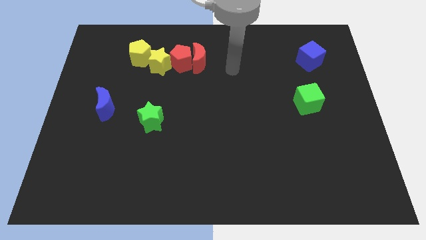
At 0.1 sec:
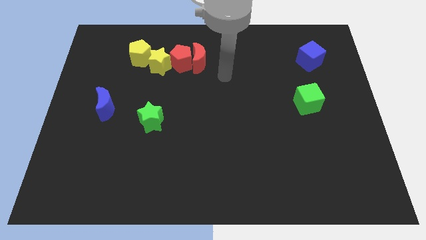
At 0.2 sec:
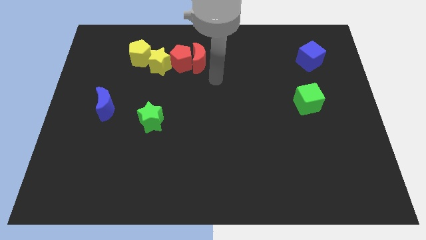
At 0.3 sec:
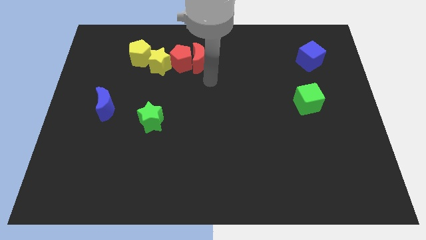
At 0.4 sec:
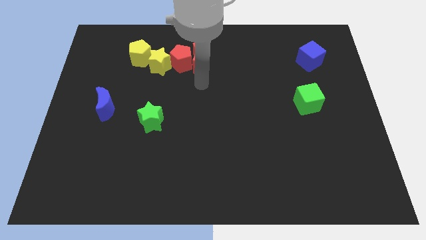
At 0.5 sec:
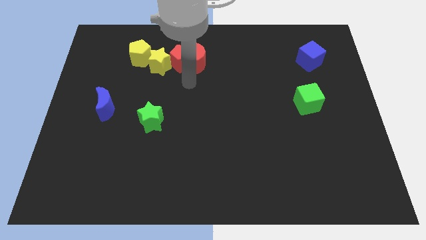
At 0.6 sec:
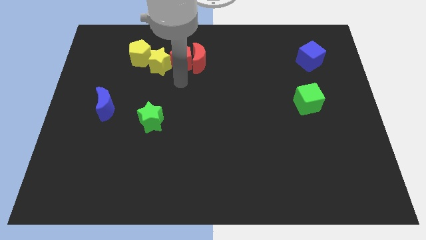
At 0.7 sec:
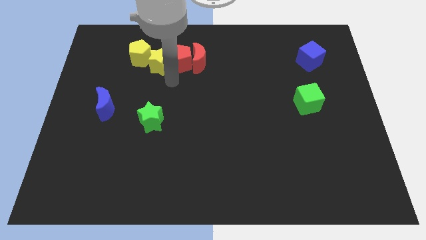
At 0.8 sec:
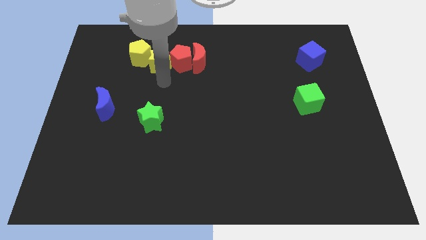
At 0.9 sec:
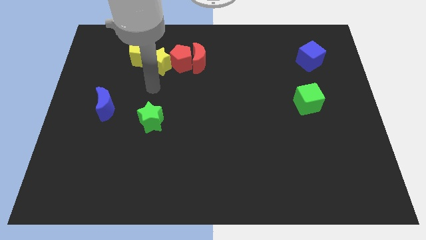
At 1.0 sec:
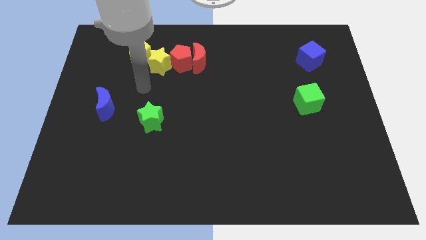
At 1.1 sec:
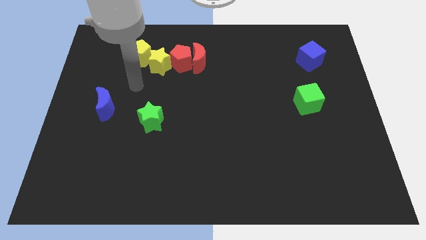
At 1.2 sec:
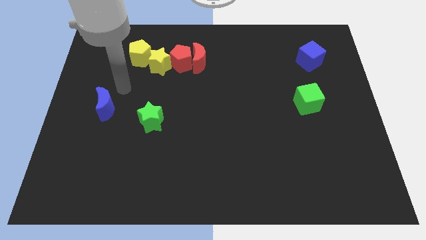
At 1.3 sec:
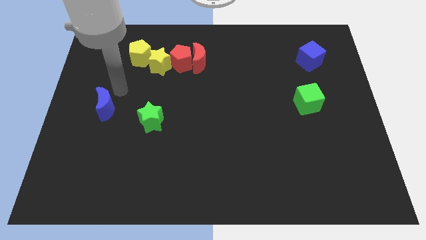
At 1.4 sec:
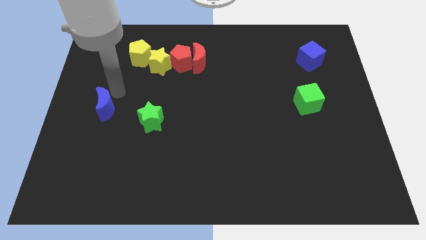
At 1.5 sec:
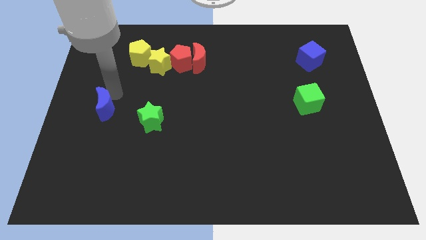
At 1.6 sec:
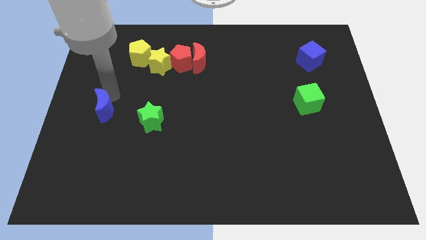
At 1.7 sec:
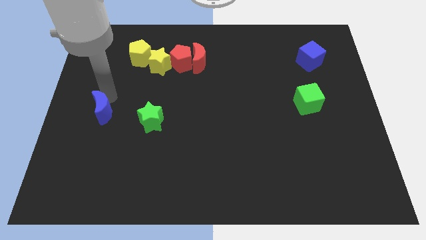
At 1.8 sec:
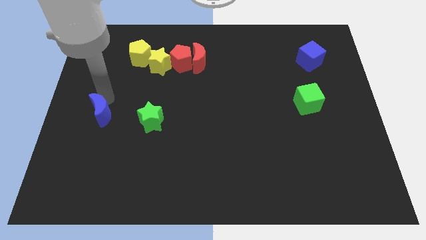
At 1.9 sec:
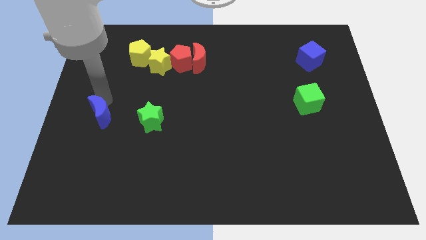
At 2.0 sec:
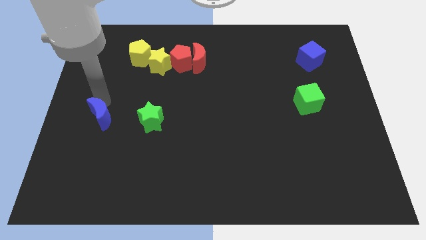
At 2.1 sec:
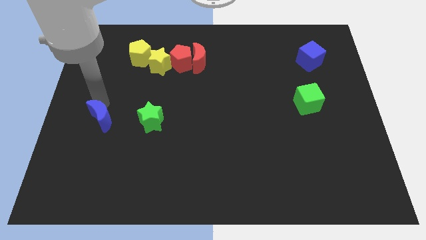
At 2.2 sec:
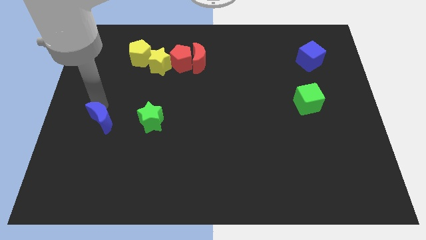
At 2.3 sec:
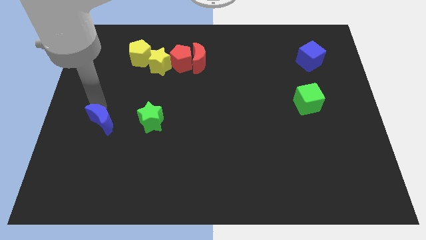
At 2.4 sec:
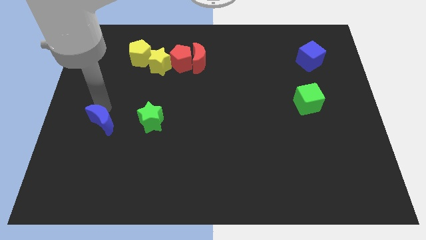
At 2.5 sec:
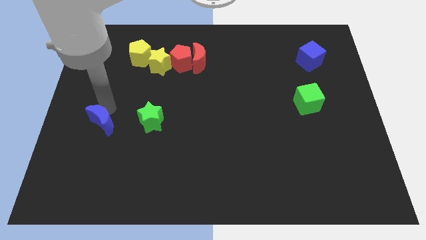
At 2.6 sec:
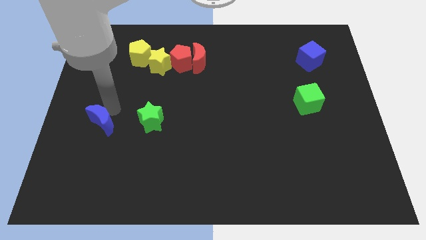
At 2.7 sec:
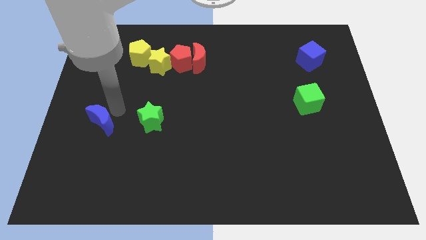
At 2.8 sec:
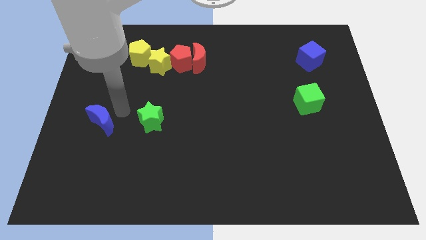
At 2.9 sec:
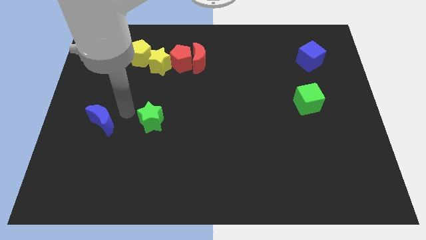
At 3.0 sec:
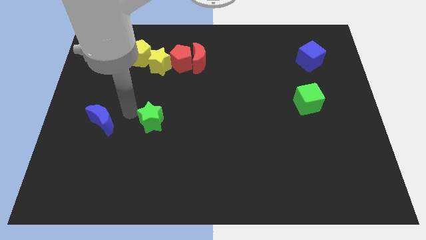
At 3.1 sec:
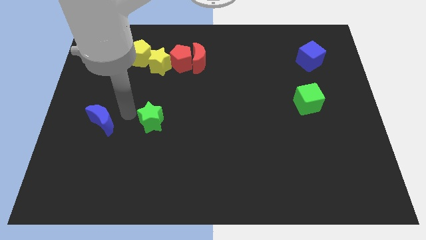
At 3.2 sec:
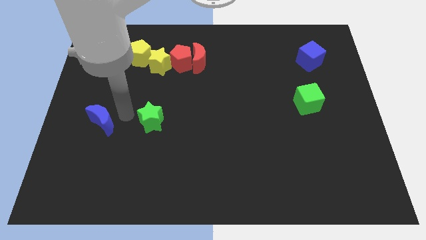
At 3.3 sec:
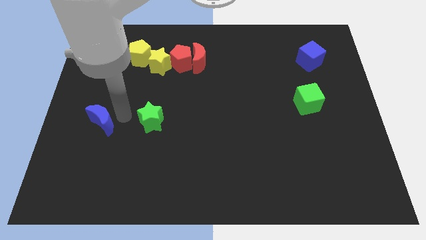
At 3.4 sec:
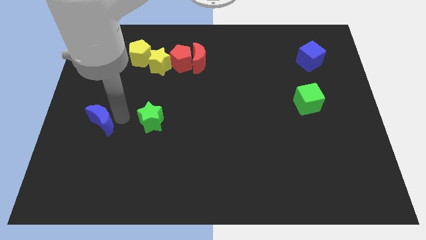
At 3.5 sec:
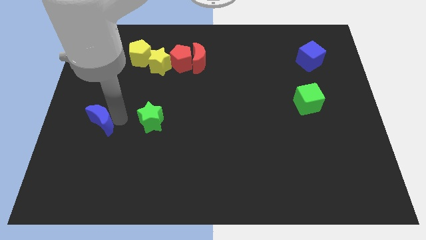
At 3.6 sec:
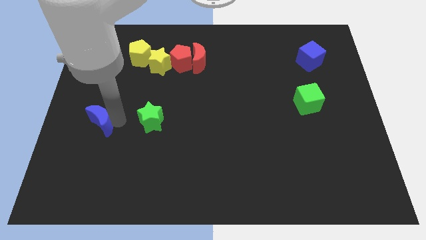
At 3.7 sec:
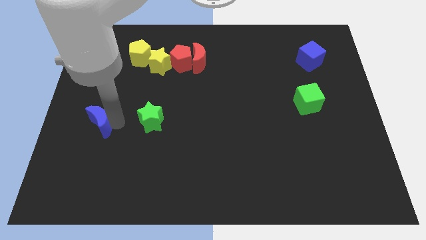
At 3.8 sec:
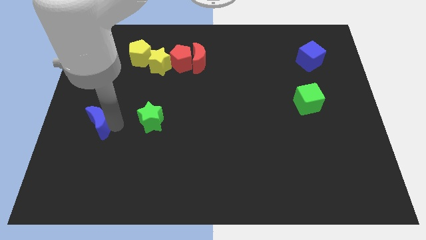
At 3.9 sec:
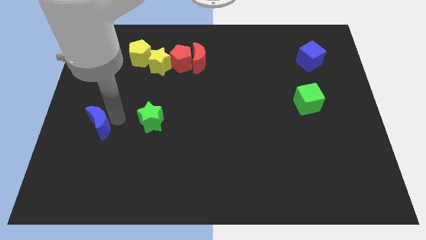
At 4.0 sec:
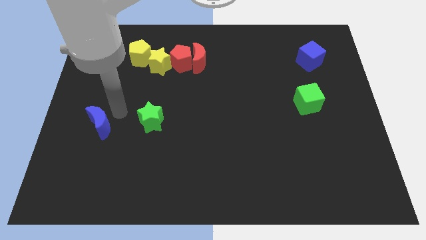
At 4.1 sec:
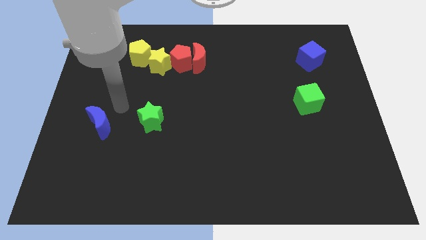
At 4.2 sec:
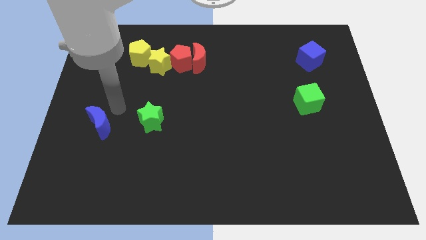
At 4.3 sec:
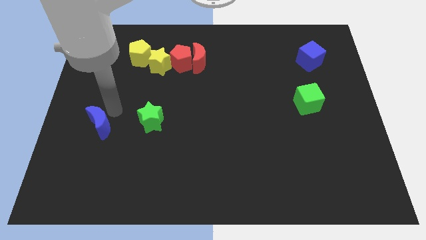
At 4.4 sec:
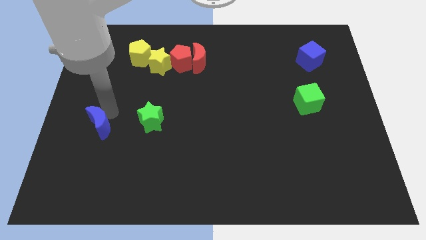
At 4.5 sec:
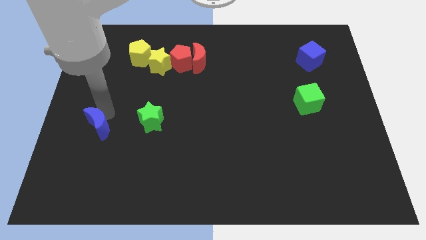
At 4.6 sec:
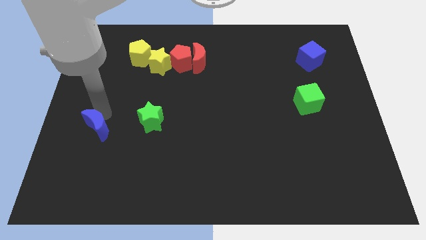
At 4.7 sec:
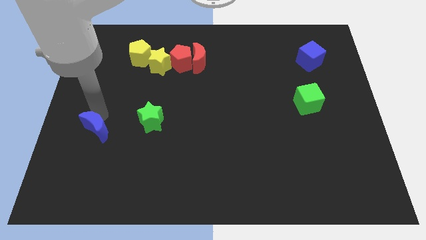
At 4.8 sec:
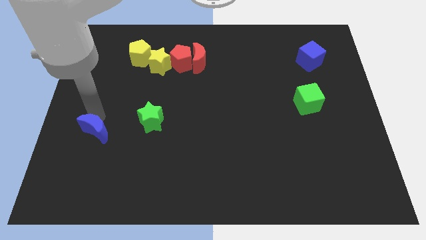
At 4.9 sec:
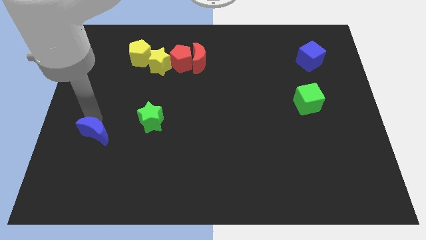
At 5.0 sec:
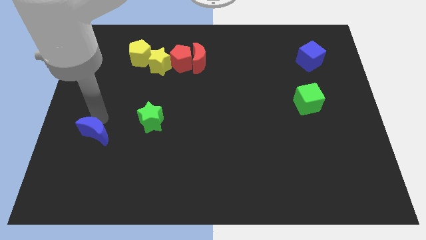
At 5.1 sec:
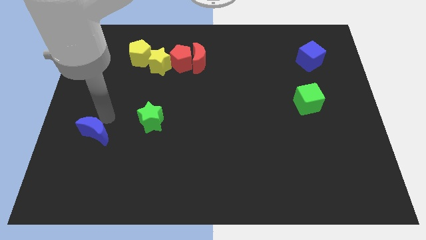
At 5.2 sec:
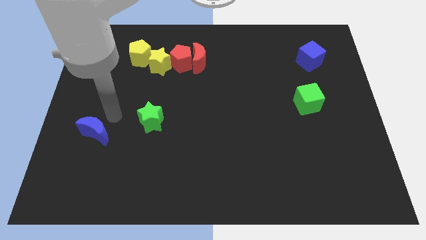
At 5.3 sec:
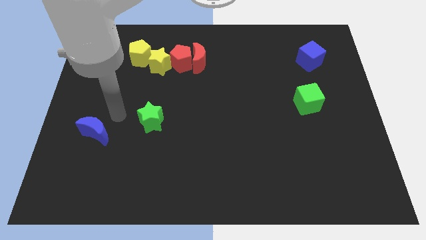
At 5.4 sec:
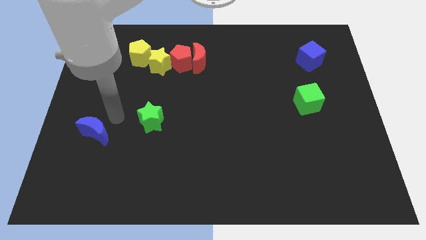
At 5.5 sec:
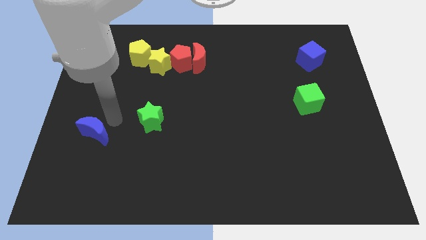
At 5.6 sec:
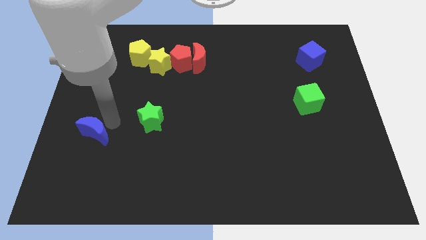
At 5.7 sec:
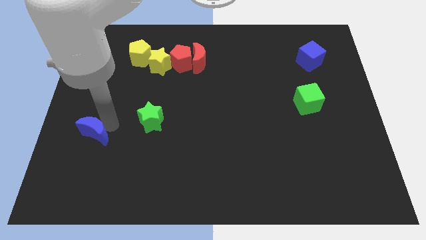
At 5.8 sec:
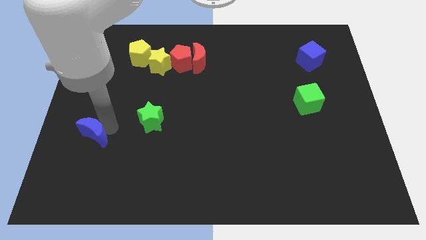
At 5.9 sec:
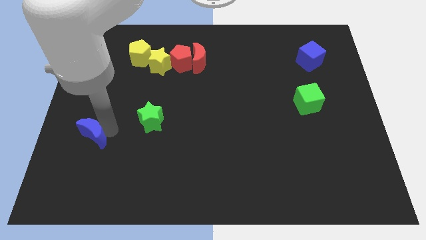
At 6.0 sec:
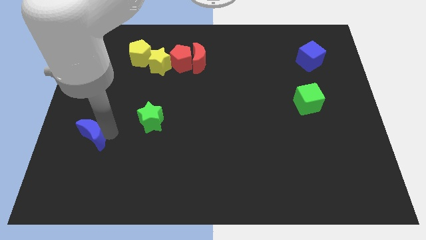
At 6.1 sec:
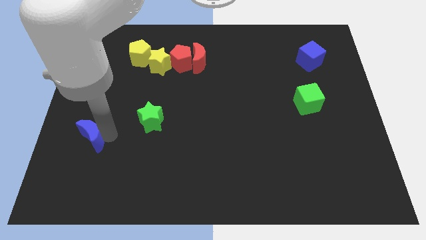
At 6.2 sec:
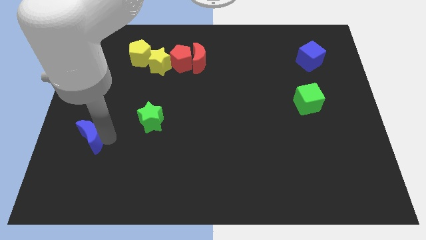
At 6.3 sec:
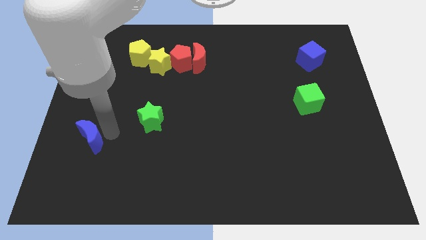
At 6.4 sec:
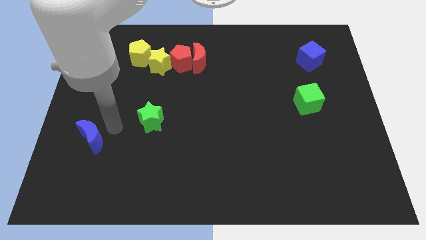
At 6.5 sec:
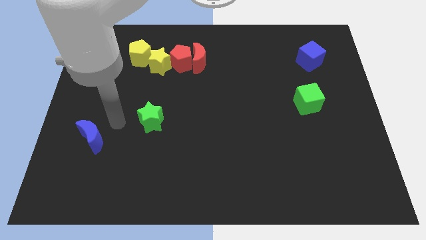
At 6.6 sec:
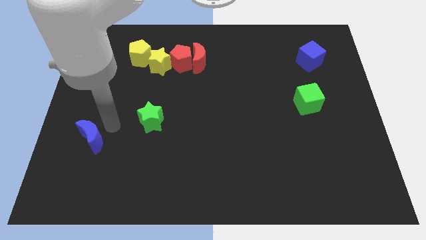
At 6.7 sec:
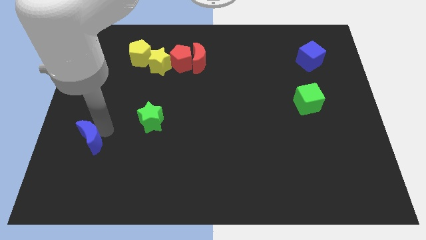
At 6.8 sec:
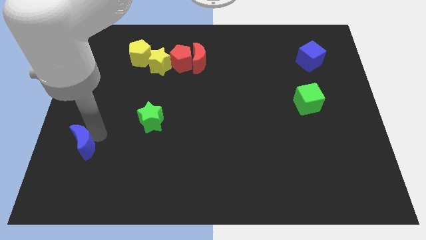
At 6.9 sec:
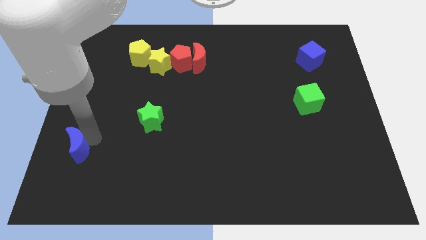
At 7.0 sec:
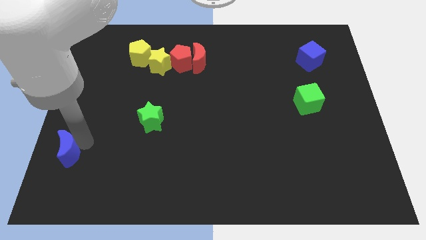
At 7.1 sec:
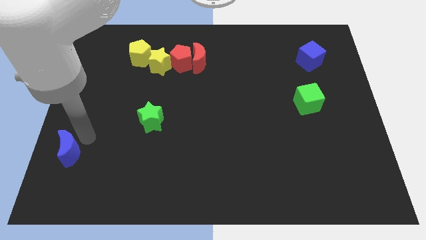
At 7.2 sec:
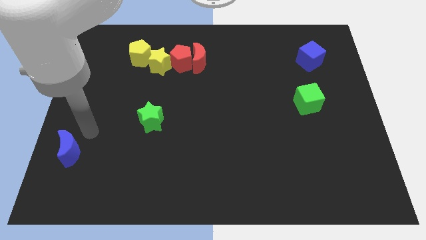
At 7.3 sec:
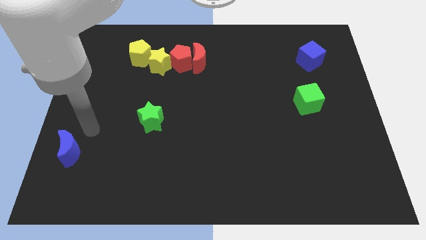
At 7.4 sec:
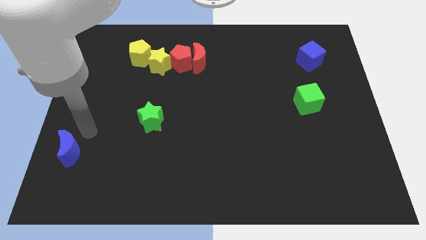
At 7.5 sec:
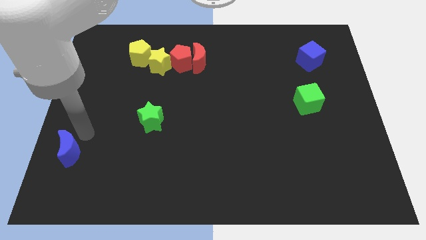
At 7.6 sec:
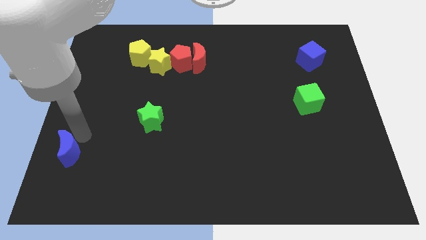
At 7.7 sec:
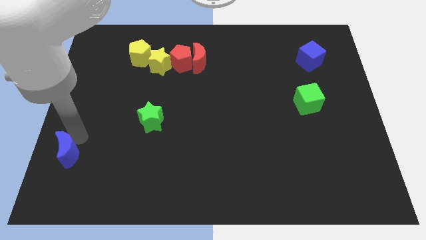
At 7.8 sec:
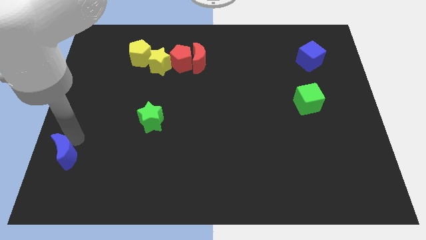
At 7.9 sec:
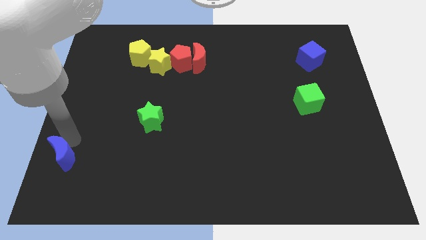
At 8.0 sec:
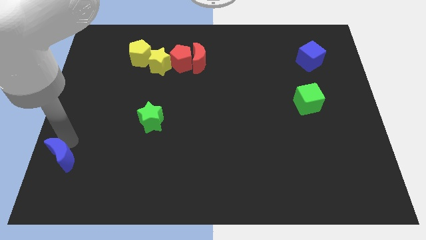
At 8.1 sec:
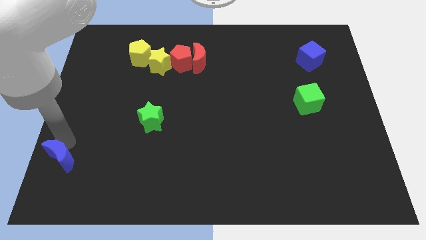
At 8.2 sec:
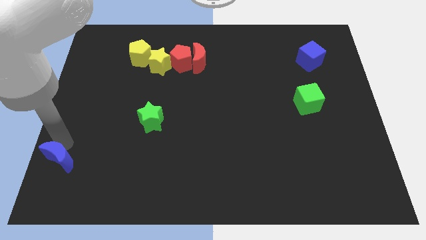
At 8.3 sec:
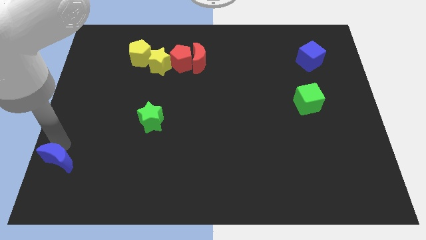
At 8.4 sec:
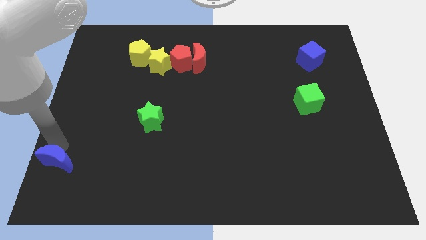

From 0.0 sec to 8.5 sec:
slide the blue moon to the bottom left corner
